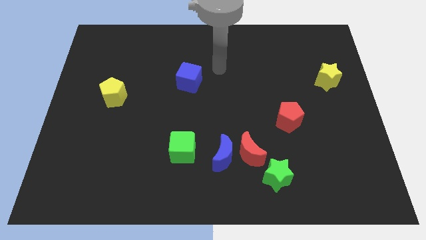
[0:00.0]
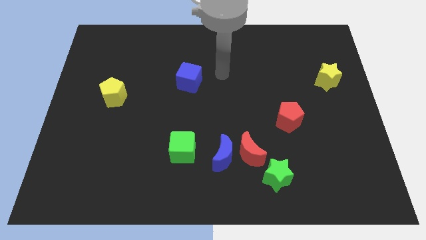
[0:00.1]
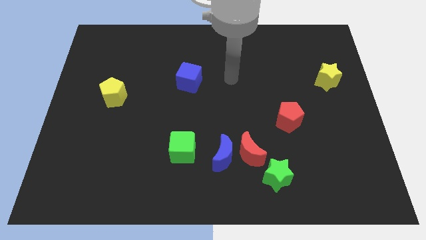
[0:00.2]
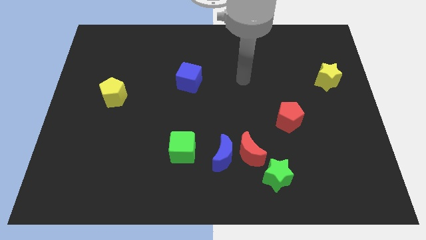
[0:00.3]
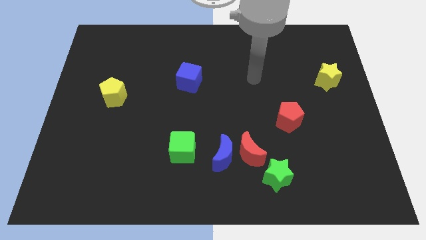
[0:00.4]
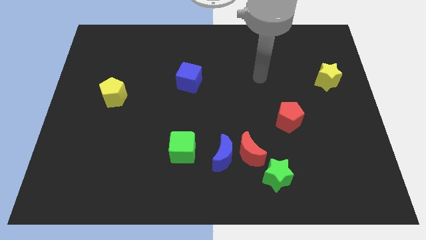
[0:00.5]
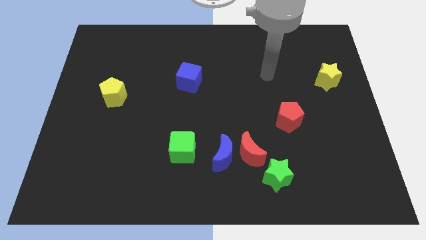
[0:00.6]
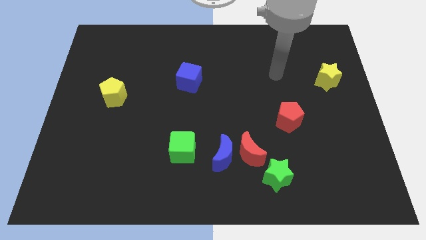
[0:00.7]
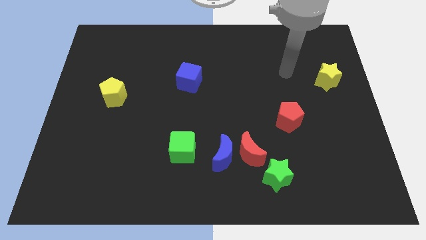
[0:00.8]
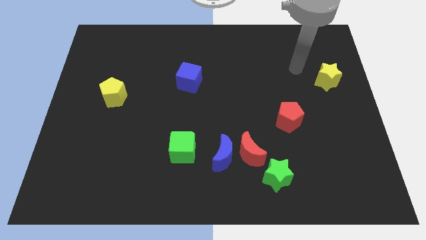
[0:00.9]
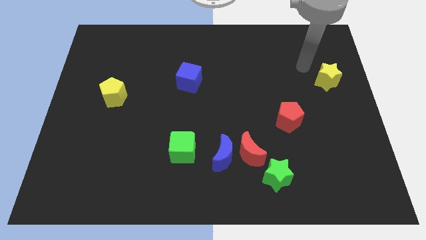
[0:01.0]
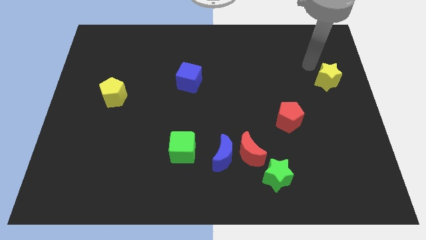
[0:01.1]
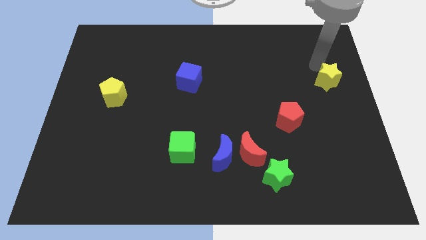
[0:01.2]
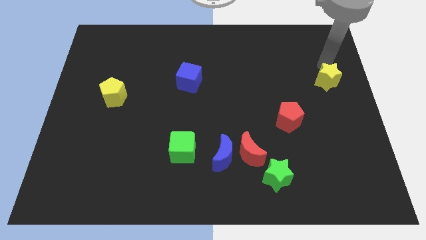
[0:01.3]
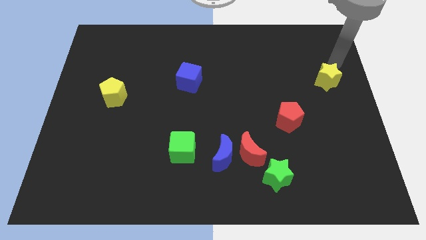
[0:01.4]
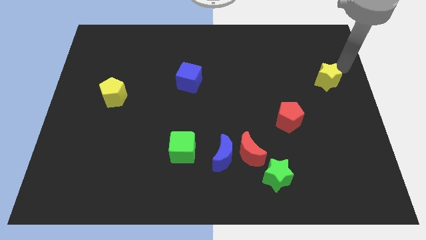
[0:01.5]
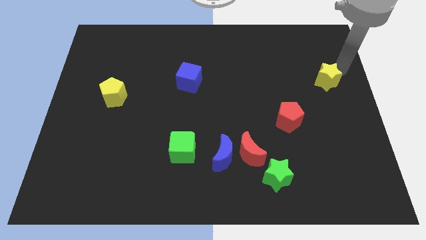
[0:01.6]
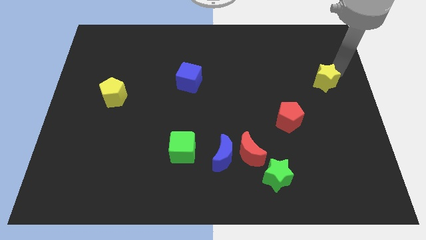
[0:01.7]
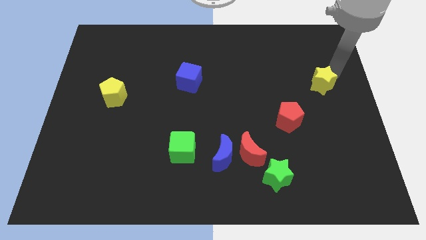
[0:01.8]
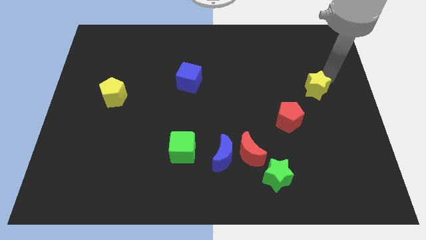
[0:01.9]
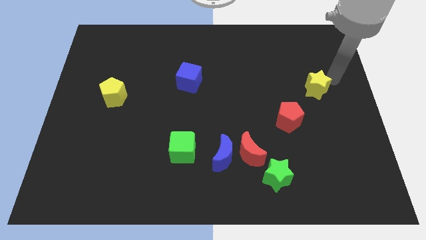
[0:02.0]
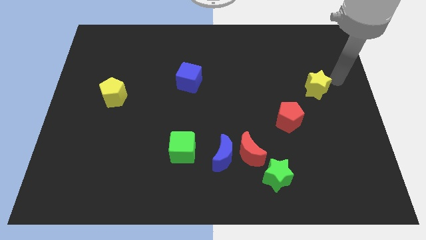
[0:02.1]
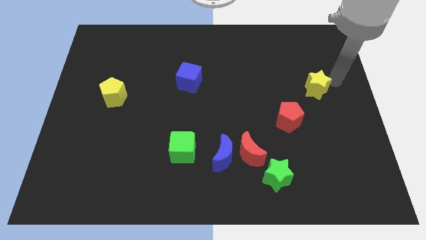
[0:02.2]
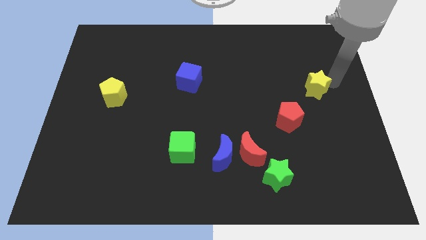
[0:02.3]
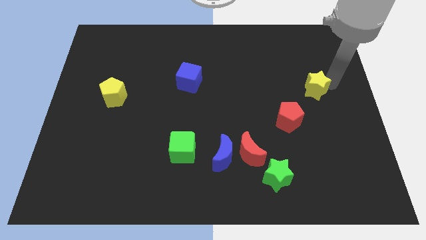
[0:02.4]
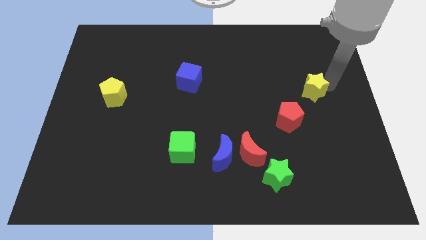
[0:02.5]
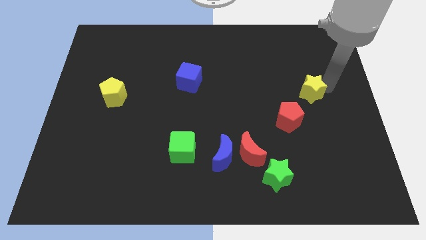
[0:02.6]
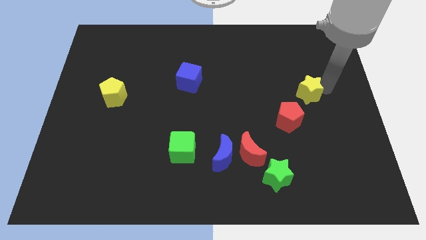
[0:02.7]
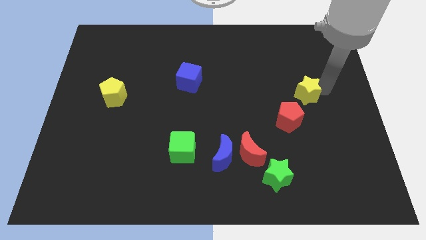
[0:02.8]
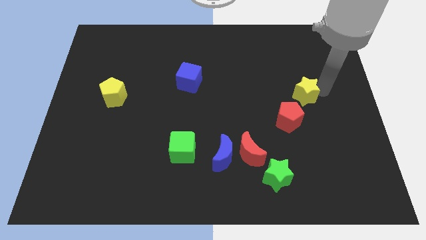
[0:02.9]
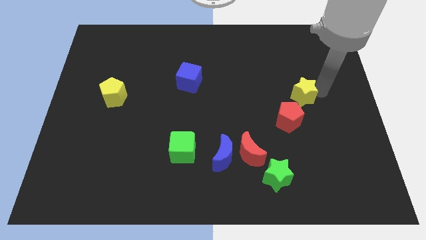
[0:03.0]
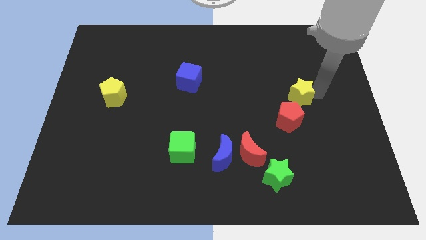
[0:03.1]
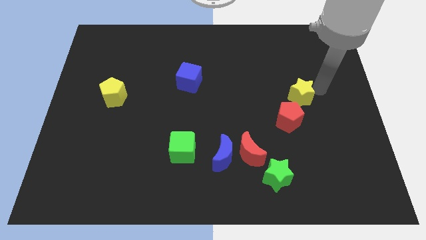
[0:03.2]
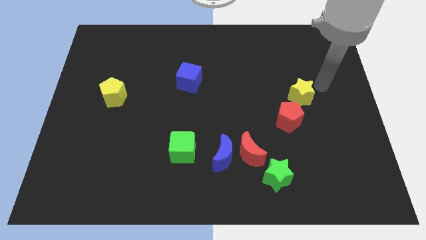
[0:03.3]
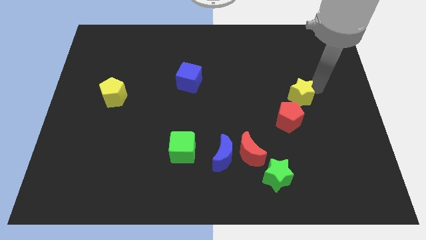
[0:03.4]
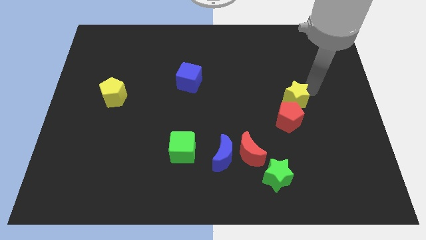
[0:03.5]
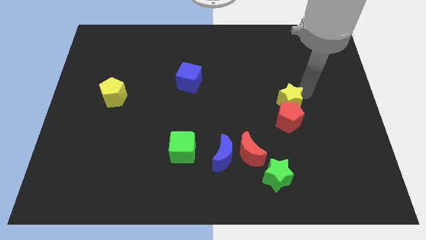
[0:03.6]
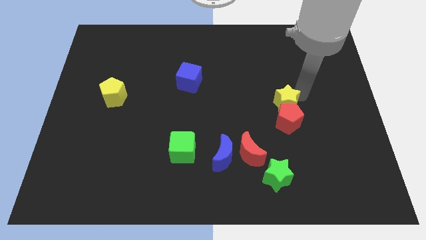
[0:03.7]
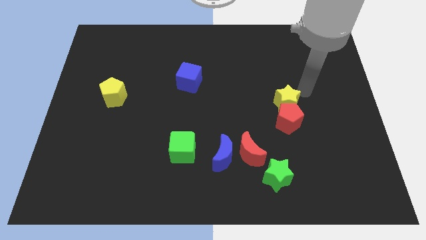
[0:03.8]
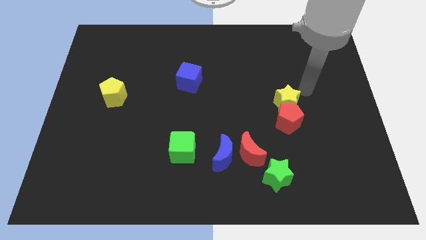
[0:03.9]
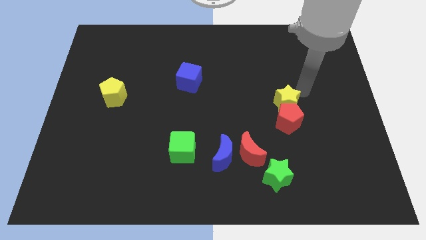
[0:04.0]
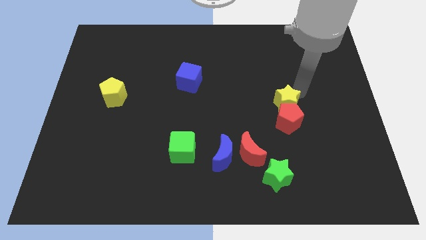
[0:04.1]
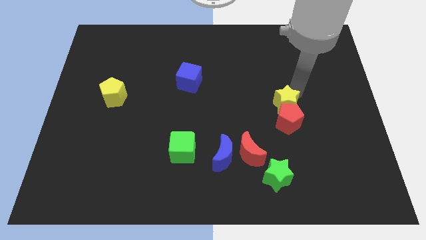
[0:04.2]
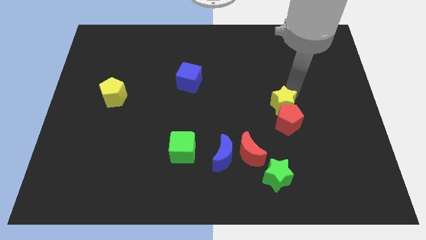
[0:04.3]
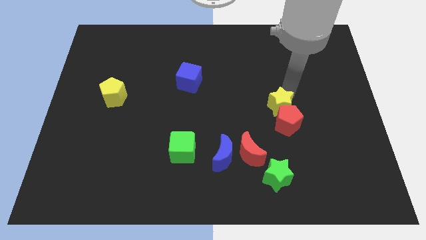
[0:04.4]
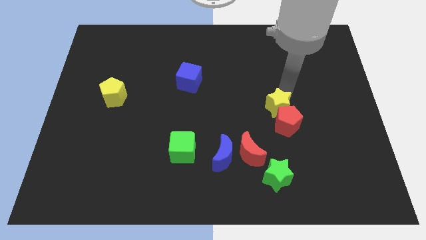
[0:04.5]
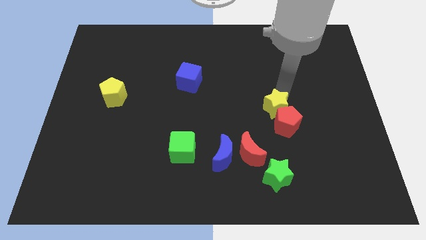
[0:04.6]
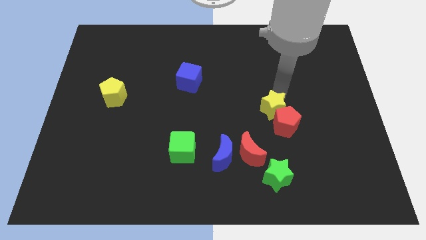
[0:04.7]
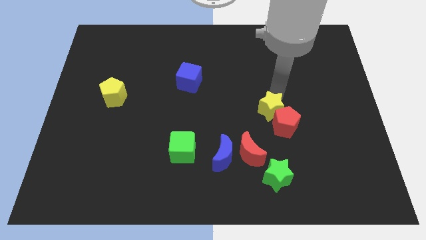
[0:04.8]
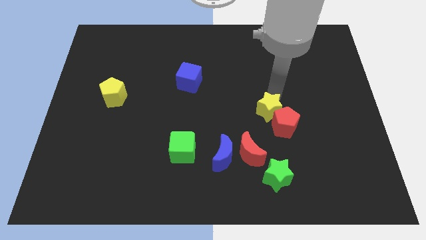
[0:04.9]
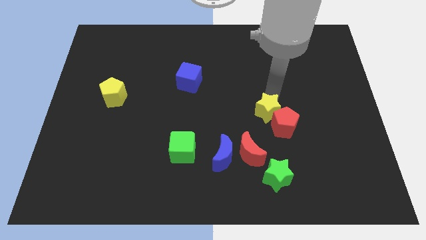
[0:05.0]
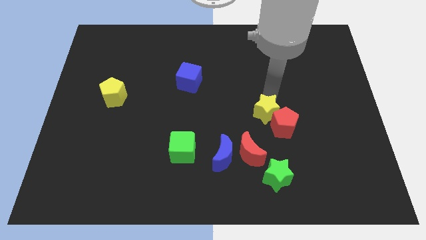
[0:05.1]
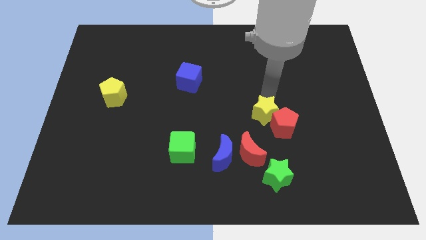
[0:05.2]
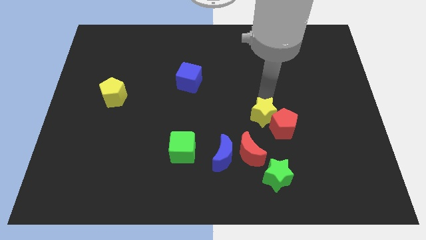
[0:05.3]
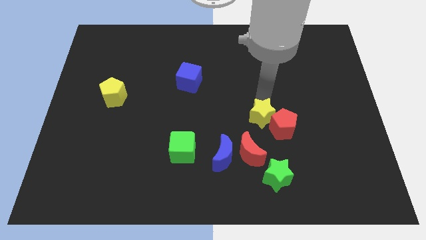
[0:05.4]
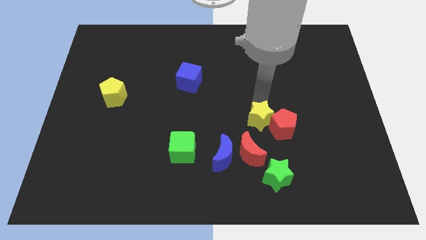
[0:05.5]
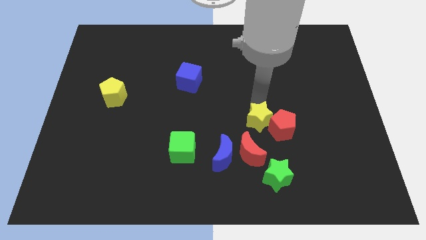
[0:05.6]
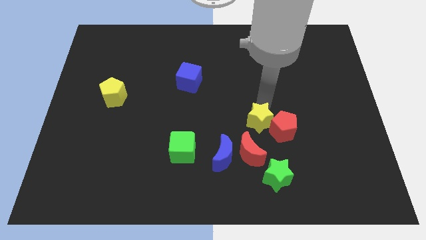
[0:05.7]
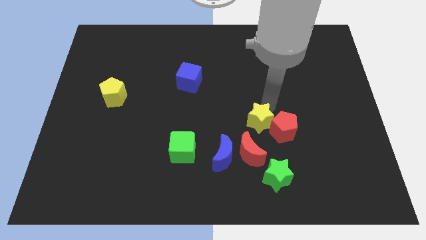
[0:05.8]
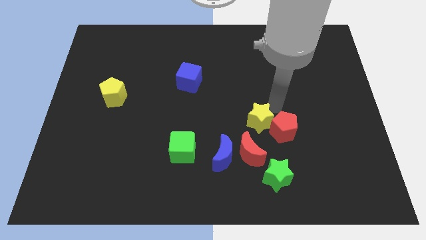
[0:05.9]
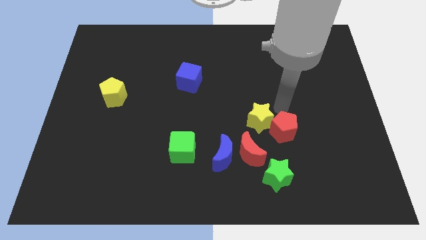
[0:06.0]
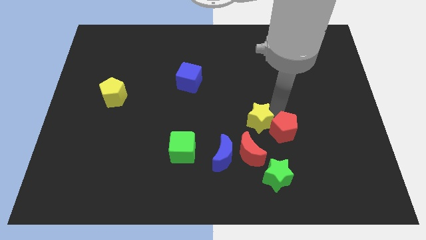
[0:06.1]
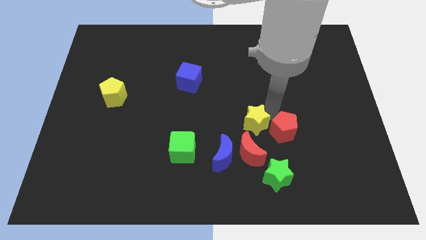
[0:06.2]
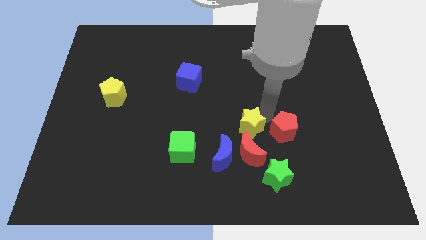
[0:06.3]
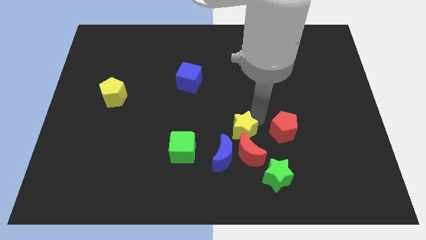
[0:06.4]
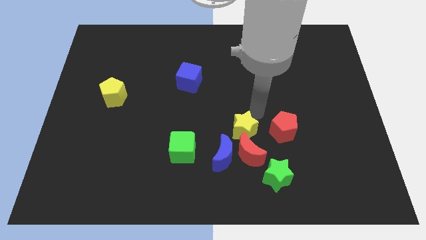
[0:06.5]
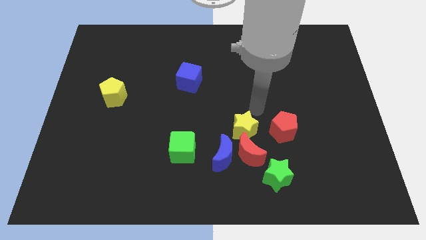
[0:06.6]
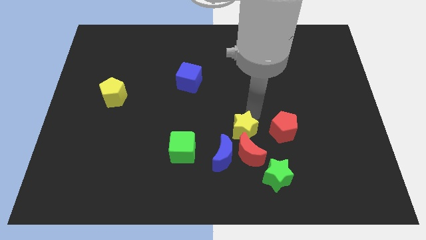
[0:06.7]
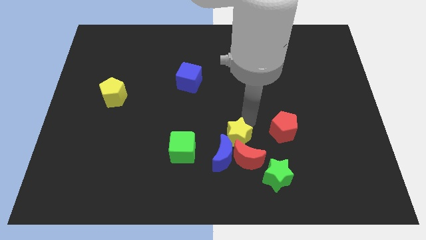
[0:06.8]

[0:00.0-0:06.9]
slide the yellow star close to the blue moon
